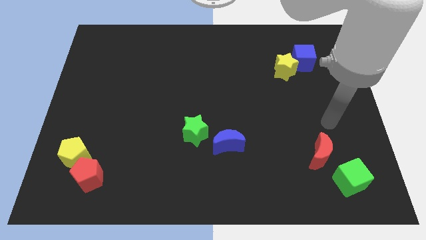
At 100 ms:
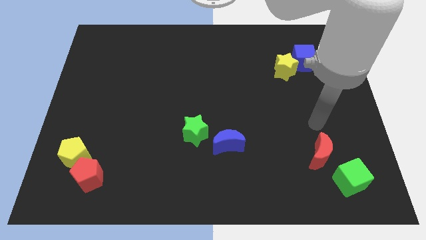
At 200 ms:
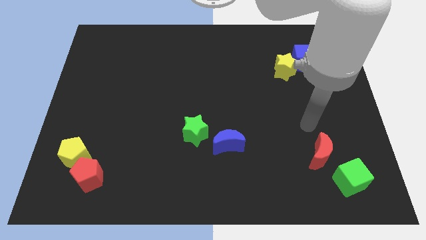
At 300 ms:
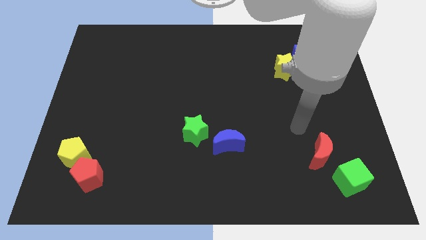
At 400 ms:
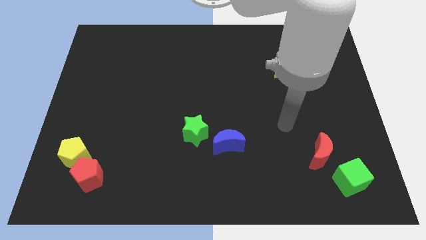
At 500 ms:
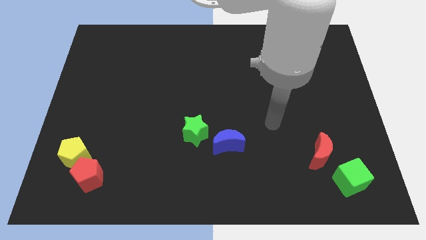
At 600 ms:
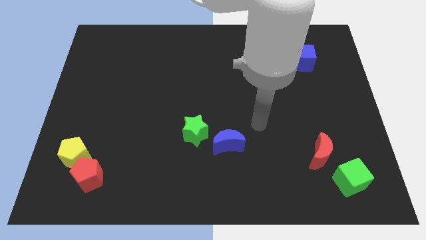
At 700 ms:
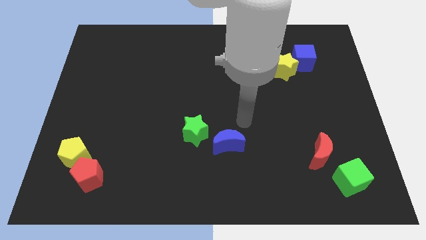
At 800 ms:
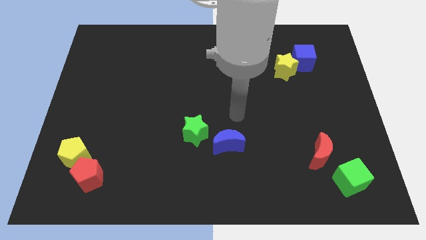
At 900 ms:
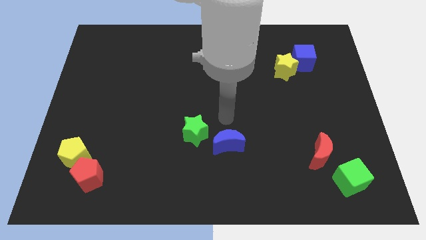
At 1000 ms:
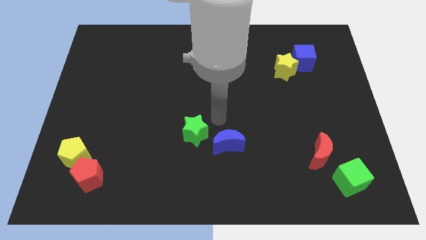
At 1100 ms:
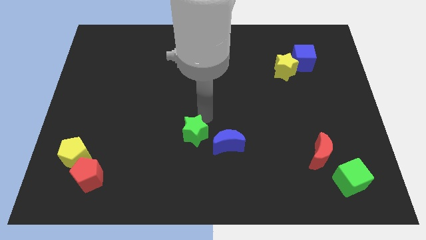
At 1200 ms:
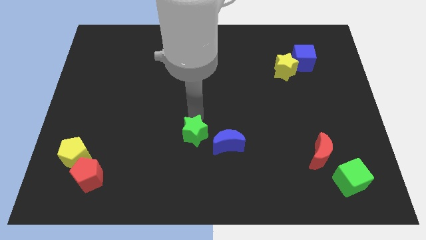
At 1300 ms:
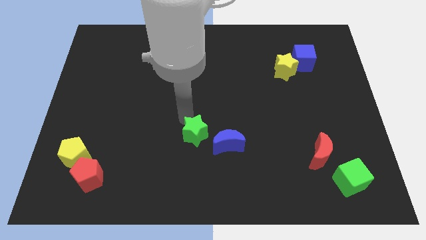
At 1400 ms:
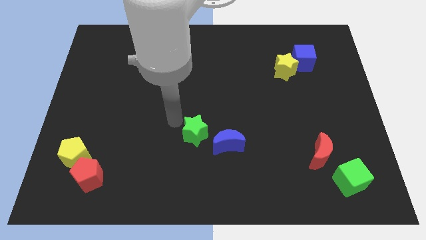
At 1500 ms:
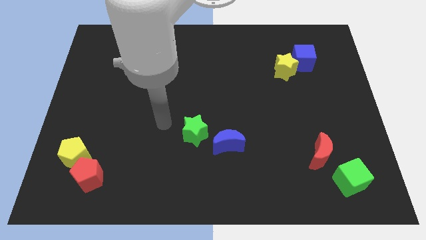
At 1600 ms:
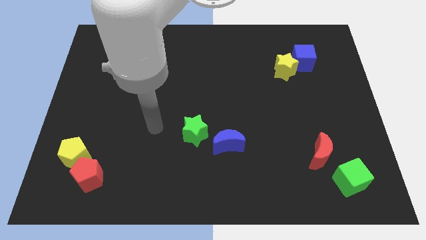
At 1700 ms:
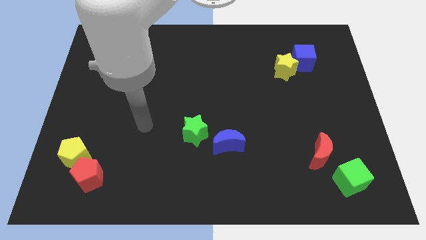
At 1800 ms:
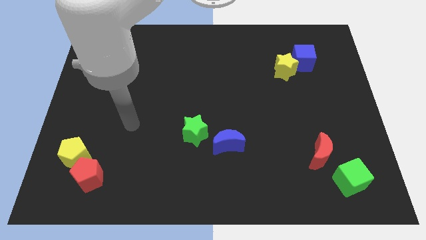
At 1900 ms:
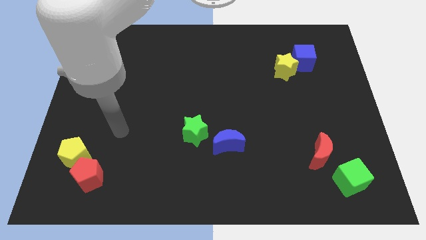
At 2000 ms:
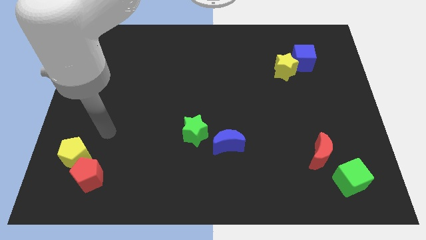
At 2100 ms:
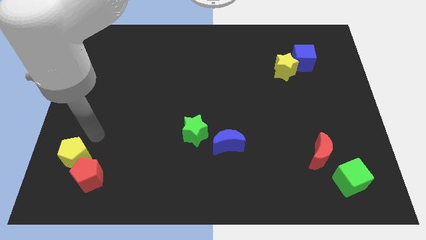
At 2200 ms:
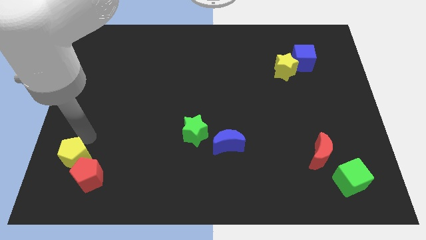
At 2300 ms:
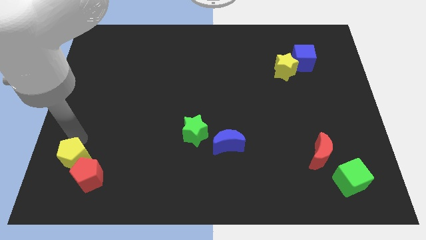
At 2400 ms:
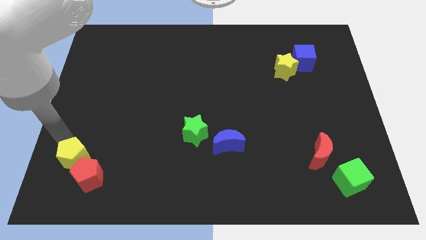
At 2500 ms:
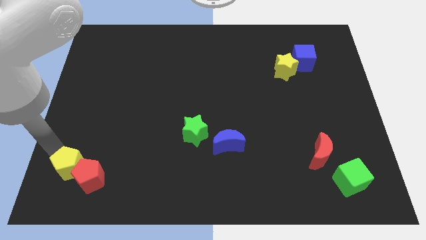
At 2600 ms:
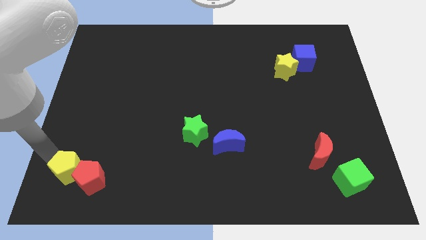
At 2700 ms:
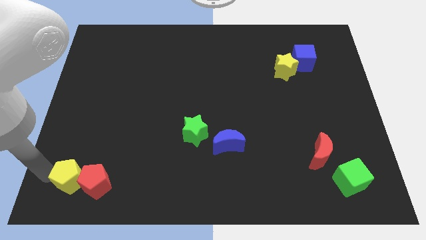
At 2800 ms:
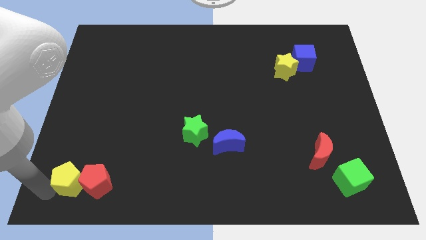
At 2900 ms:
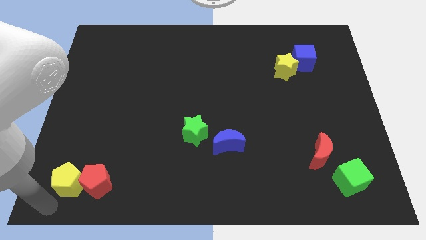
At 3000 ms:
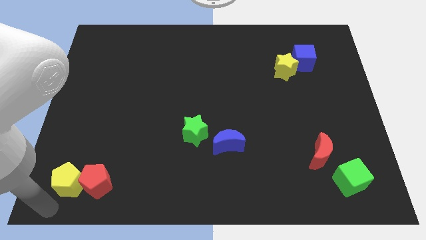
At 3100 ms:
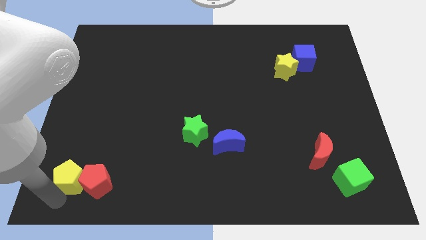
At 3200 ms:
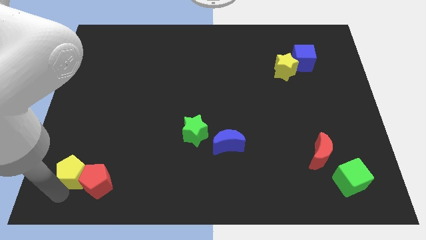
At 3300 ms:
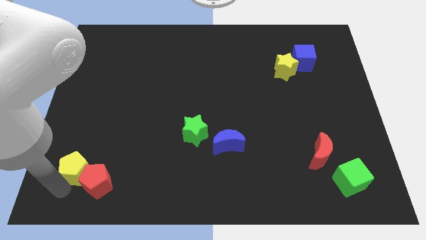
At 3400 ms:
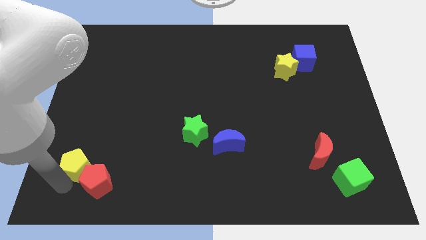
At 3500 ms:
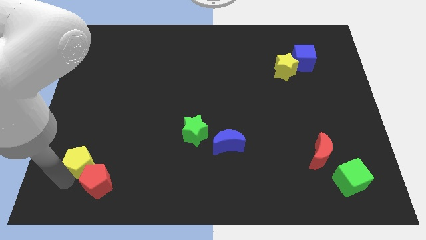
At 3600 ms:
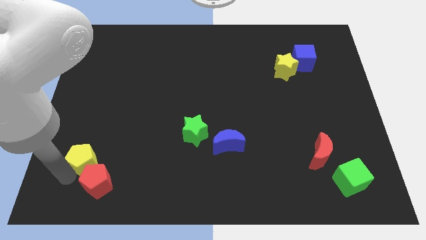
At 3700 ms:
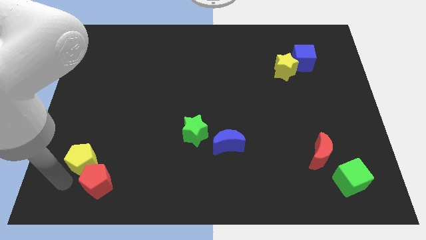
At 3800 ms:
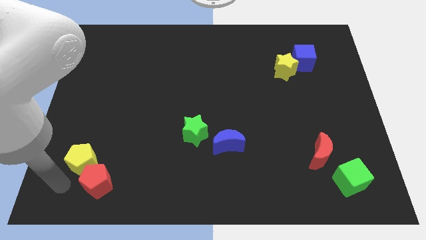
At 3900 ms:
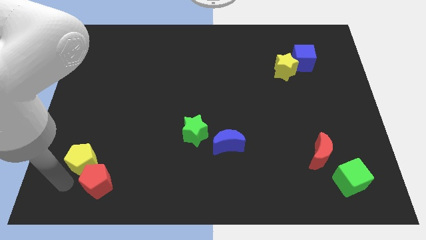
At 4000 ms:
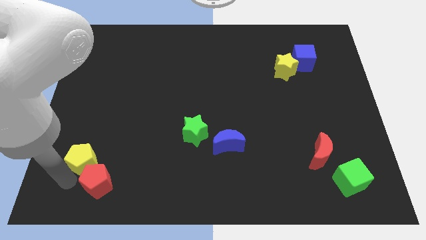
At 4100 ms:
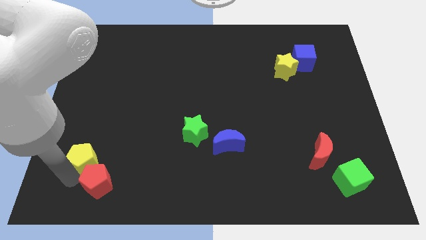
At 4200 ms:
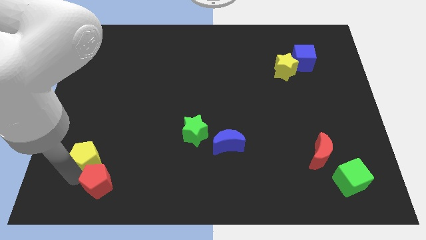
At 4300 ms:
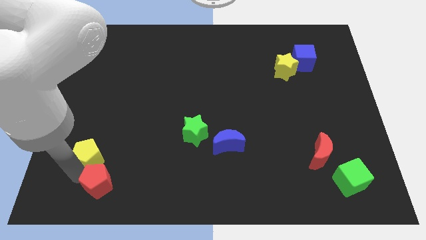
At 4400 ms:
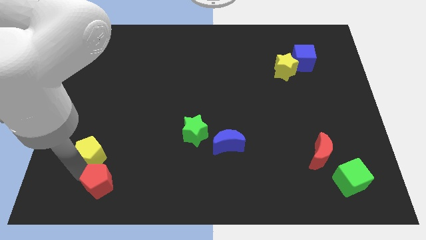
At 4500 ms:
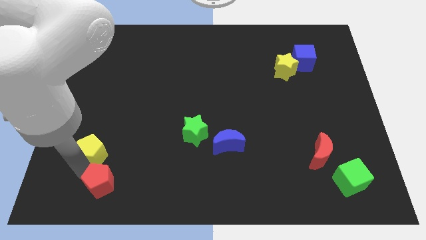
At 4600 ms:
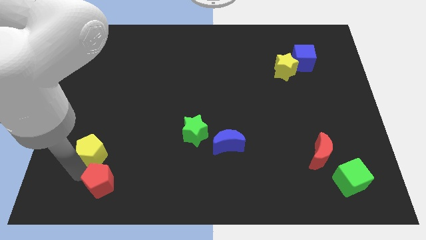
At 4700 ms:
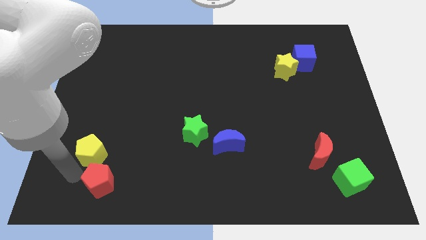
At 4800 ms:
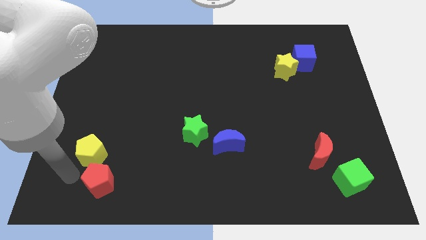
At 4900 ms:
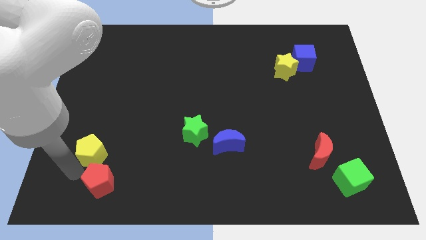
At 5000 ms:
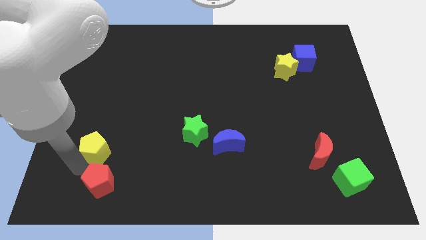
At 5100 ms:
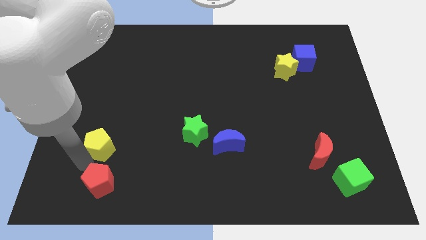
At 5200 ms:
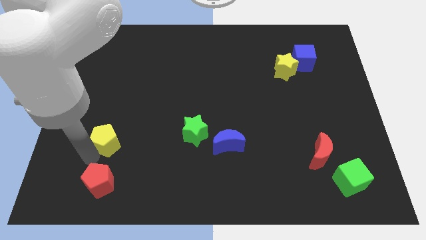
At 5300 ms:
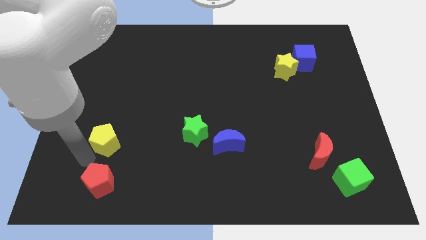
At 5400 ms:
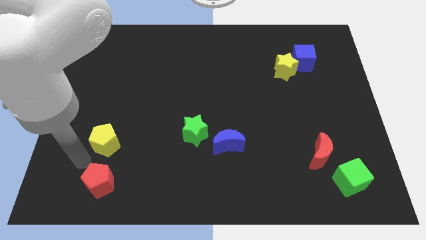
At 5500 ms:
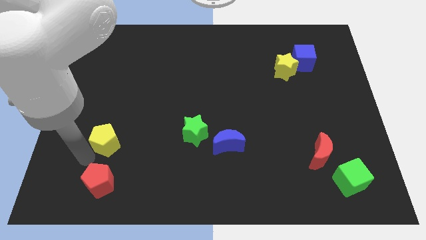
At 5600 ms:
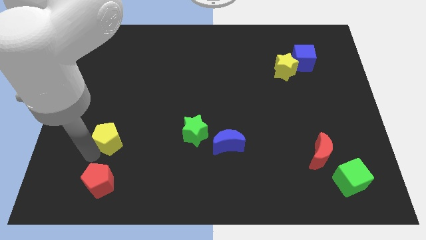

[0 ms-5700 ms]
move the yellow pentagon somewhat up and then to the right

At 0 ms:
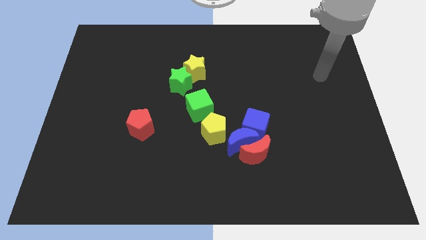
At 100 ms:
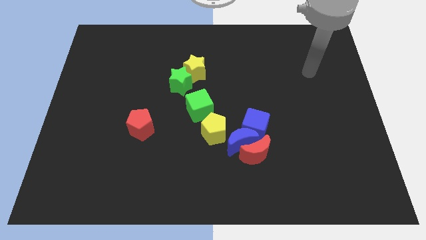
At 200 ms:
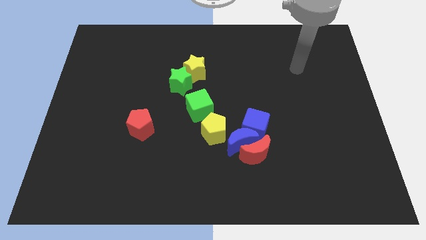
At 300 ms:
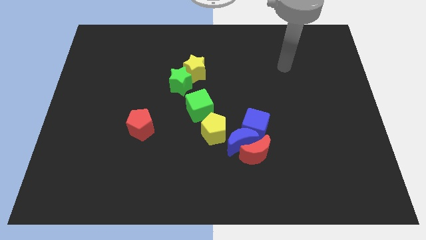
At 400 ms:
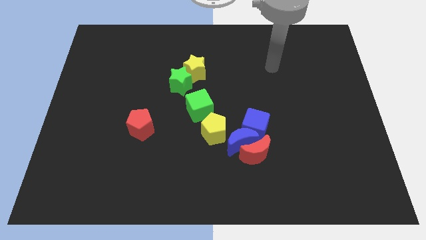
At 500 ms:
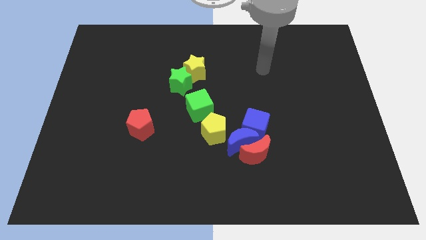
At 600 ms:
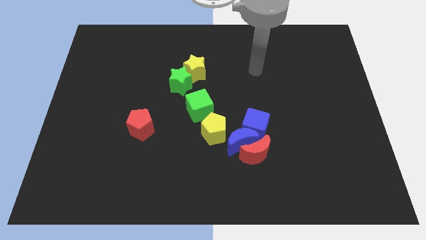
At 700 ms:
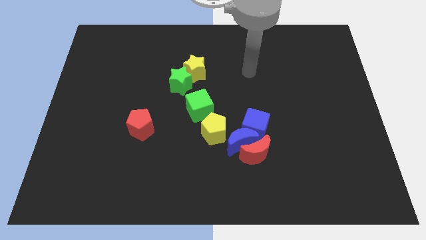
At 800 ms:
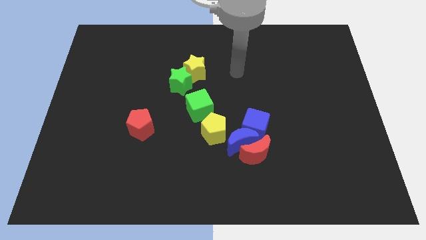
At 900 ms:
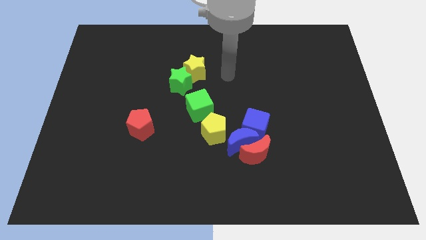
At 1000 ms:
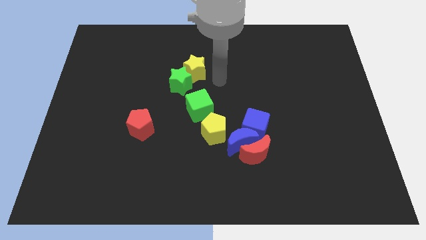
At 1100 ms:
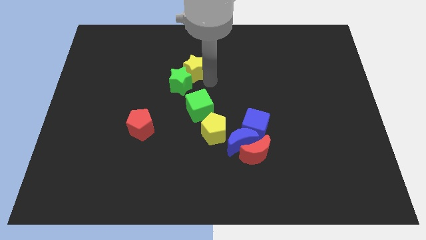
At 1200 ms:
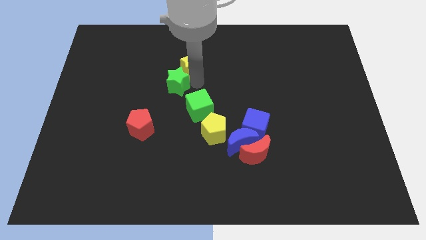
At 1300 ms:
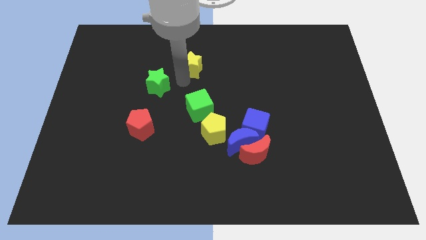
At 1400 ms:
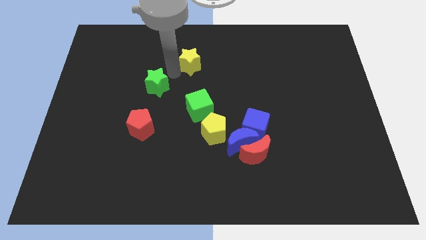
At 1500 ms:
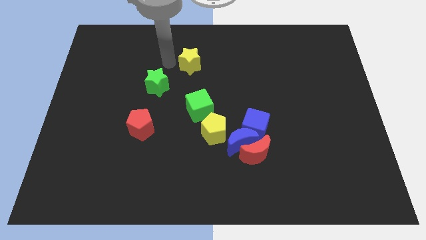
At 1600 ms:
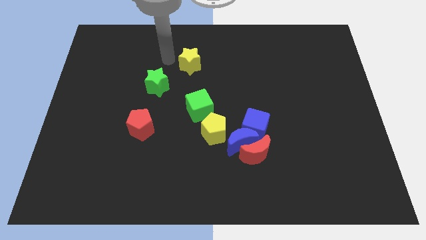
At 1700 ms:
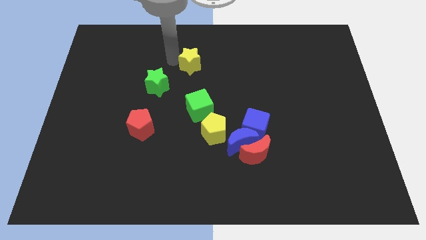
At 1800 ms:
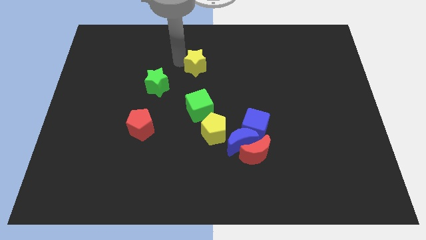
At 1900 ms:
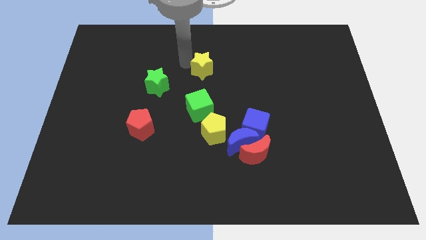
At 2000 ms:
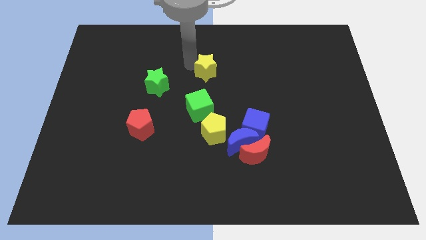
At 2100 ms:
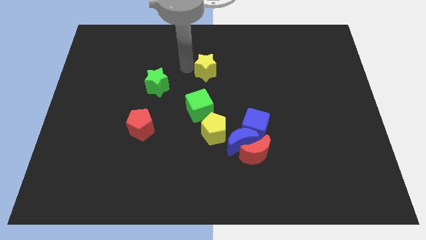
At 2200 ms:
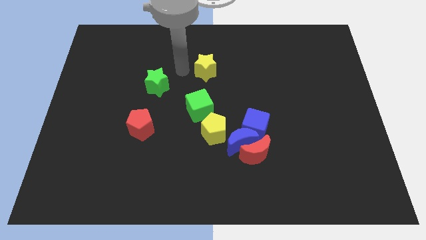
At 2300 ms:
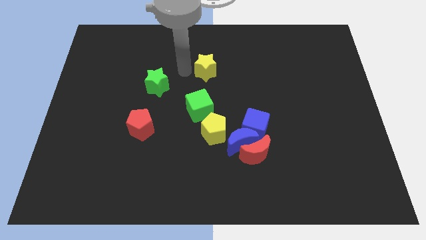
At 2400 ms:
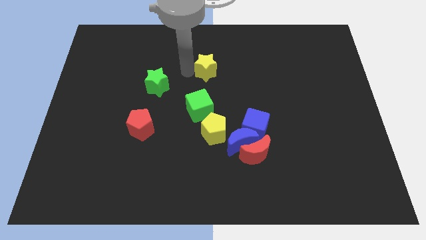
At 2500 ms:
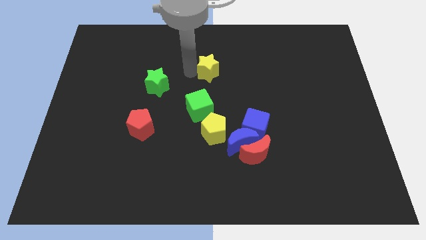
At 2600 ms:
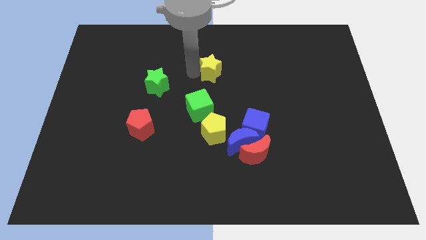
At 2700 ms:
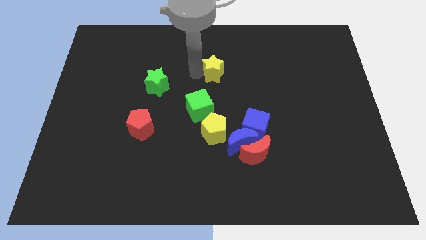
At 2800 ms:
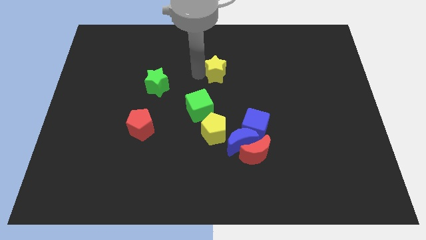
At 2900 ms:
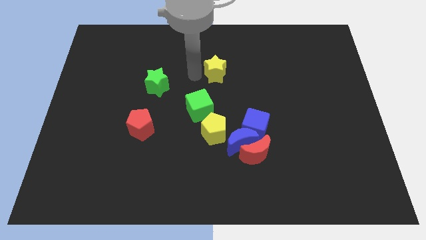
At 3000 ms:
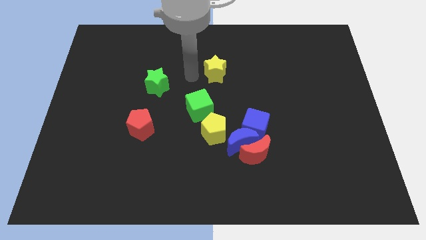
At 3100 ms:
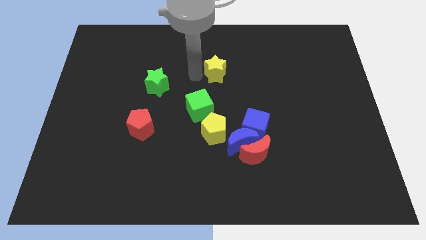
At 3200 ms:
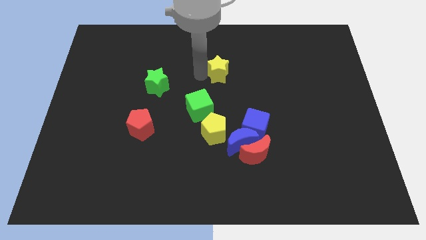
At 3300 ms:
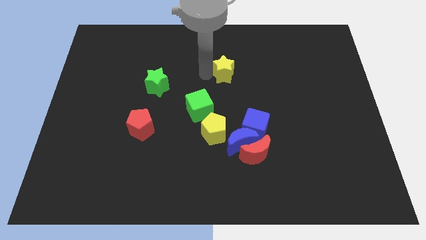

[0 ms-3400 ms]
move the yellow star right somewhat
